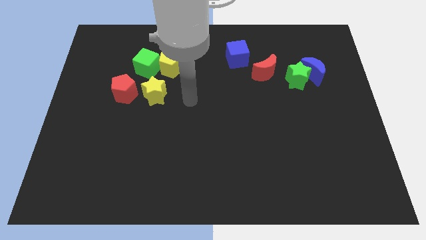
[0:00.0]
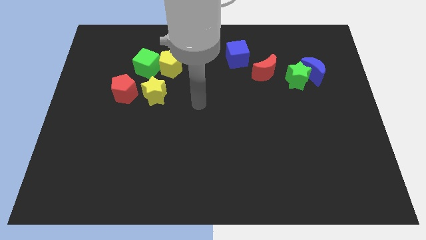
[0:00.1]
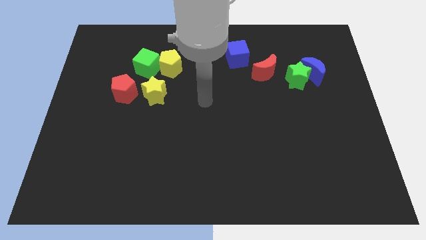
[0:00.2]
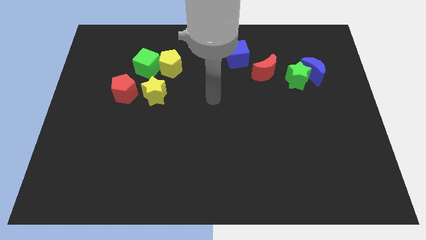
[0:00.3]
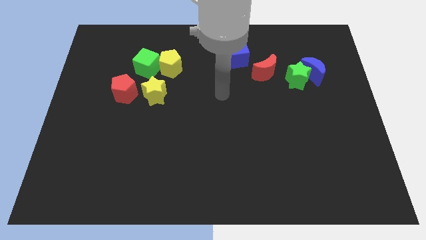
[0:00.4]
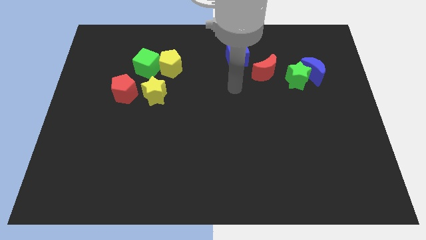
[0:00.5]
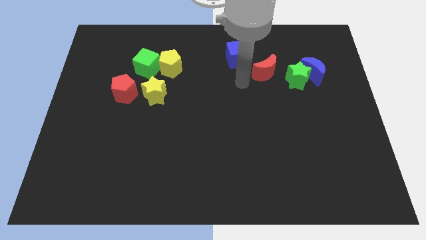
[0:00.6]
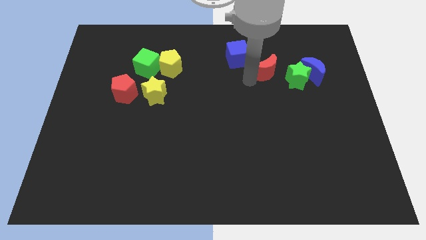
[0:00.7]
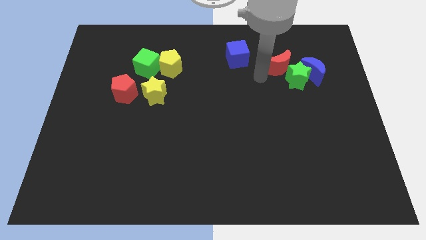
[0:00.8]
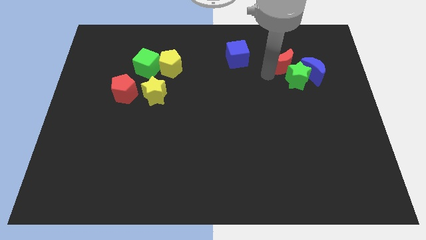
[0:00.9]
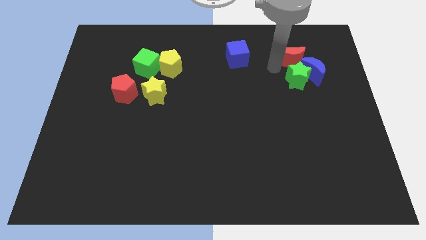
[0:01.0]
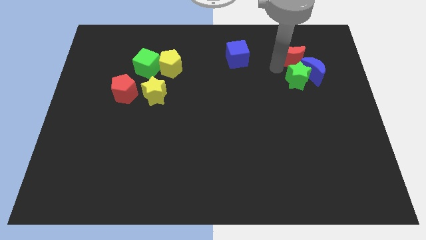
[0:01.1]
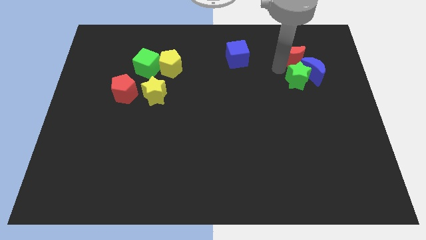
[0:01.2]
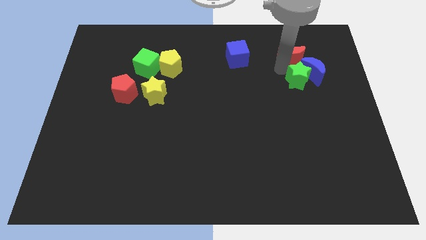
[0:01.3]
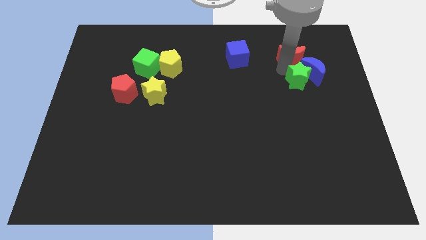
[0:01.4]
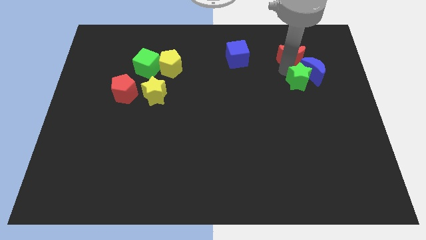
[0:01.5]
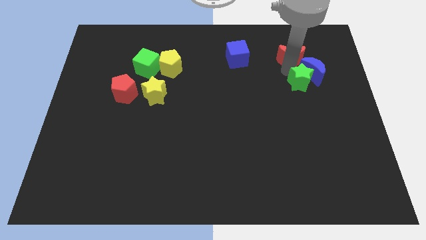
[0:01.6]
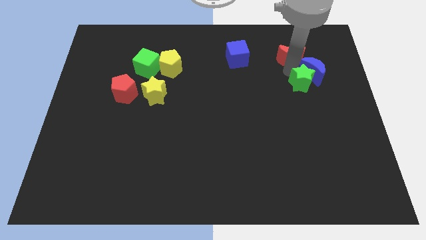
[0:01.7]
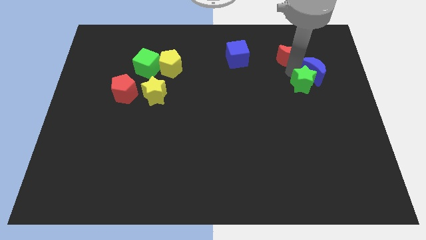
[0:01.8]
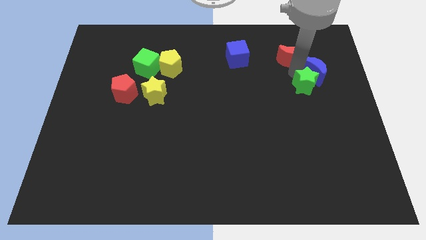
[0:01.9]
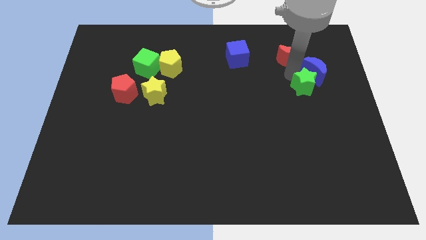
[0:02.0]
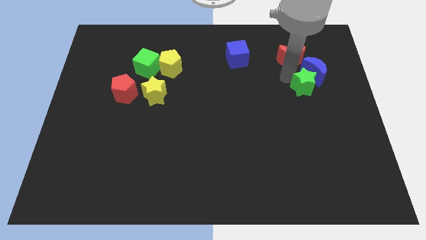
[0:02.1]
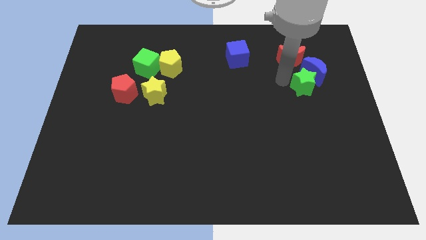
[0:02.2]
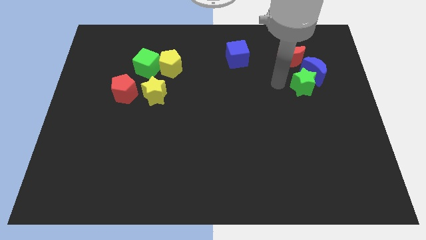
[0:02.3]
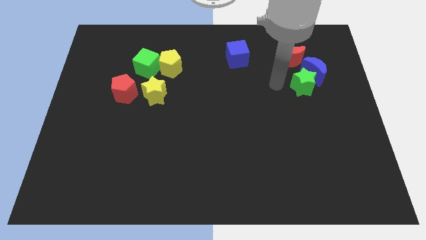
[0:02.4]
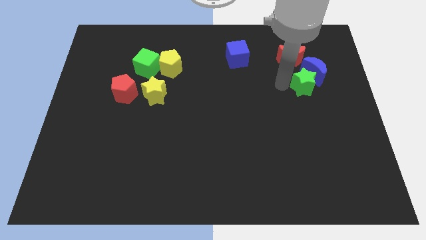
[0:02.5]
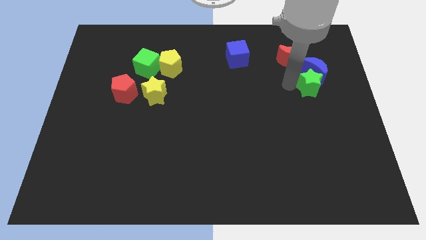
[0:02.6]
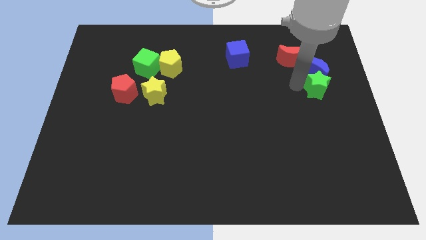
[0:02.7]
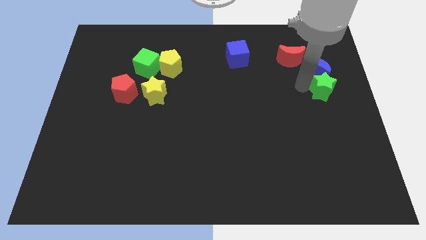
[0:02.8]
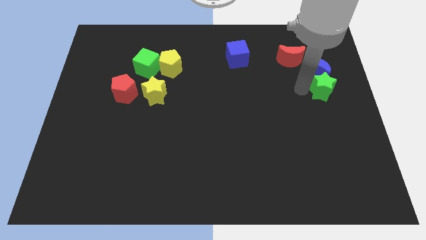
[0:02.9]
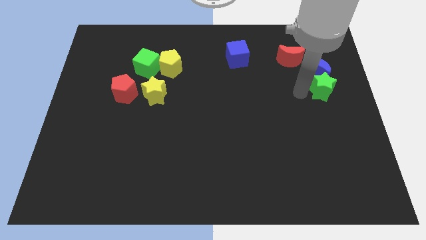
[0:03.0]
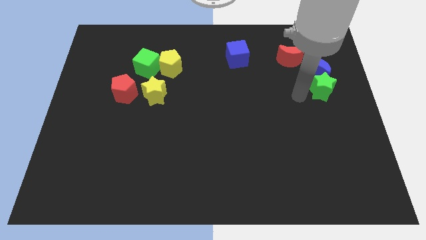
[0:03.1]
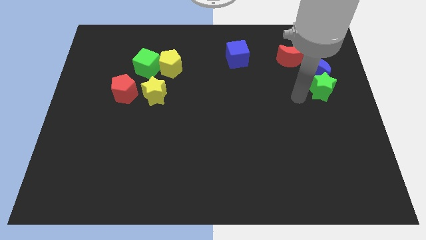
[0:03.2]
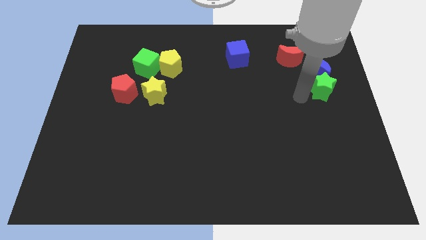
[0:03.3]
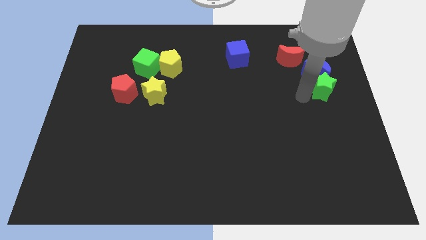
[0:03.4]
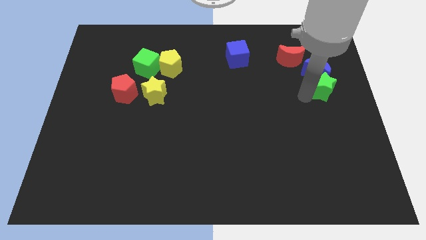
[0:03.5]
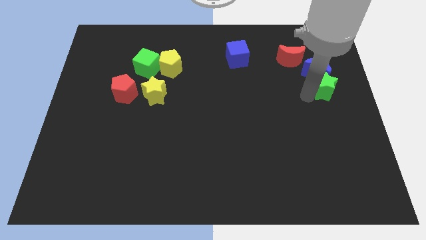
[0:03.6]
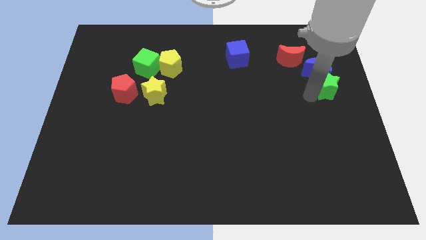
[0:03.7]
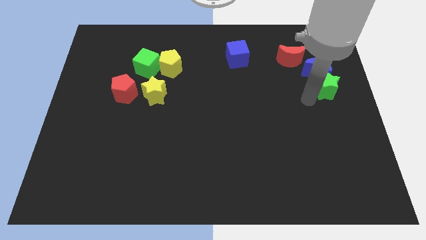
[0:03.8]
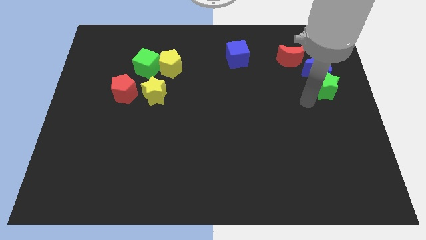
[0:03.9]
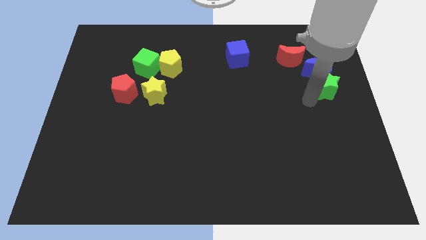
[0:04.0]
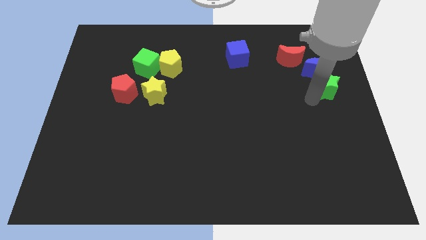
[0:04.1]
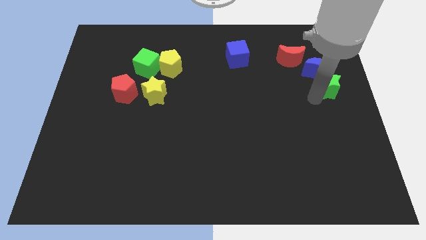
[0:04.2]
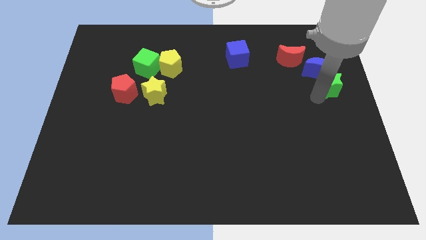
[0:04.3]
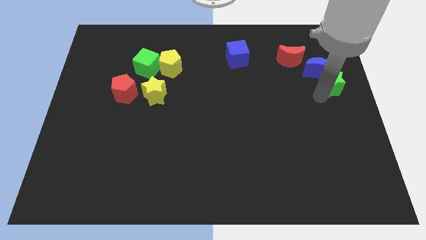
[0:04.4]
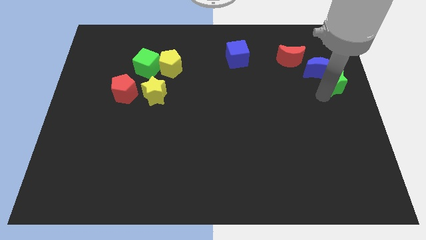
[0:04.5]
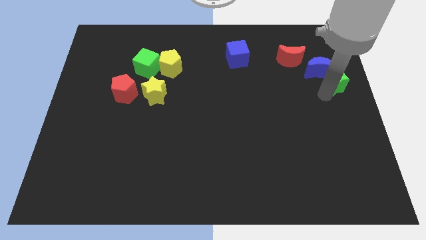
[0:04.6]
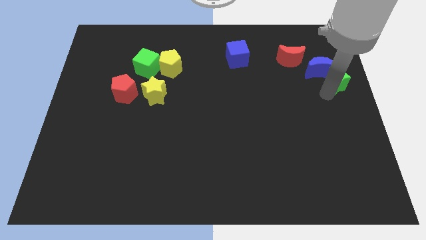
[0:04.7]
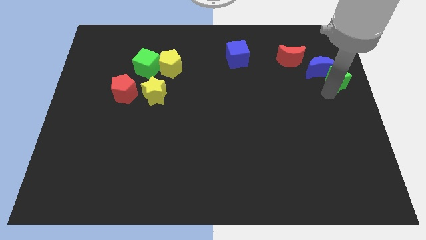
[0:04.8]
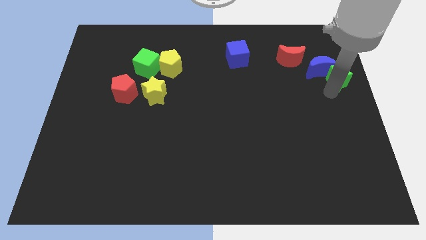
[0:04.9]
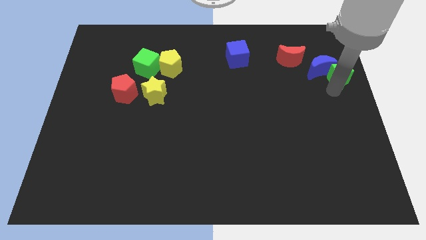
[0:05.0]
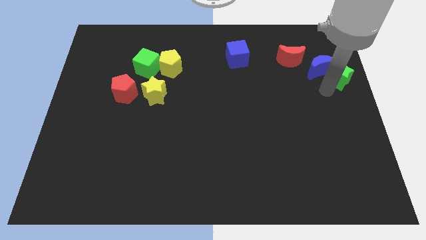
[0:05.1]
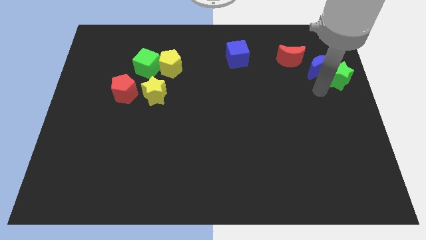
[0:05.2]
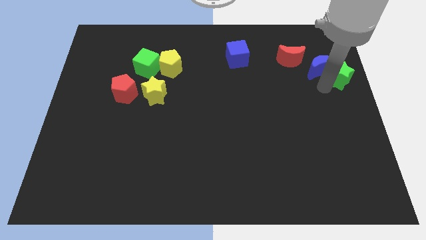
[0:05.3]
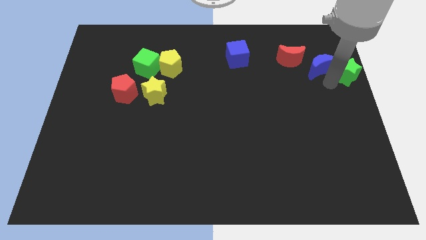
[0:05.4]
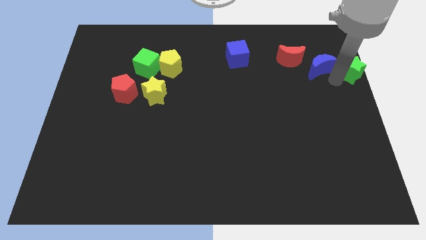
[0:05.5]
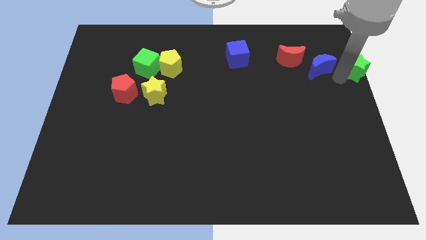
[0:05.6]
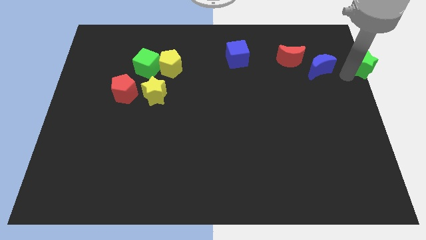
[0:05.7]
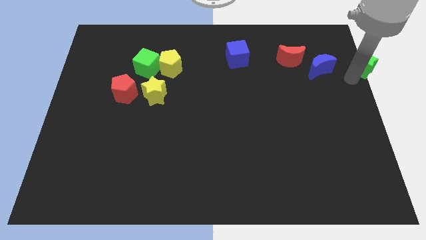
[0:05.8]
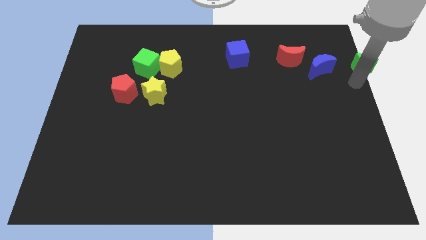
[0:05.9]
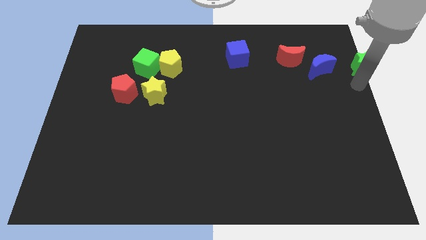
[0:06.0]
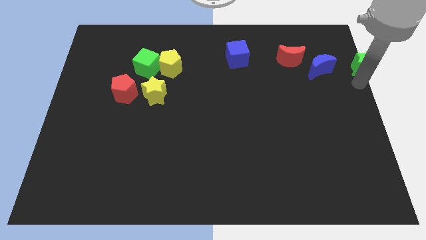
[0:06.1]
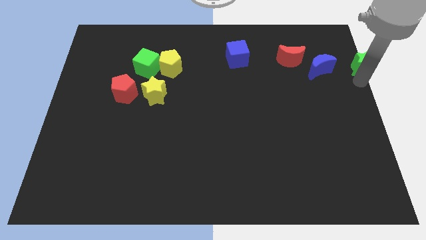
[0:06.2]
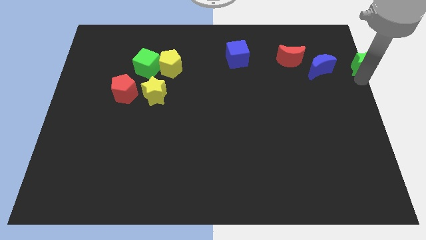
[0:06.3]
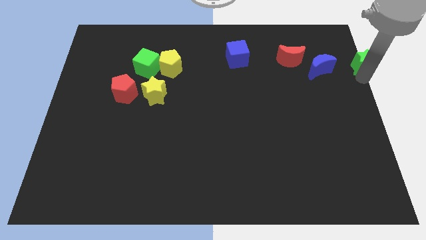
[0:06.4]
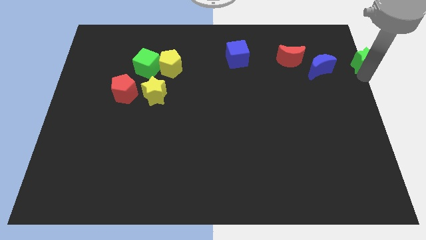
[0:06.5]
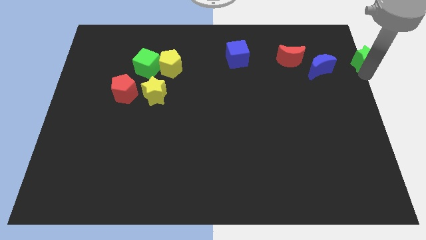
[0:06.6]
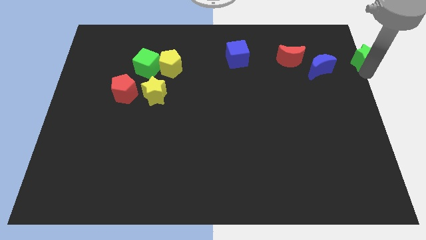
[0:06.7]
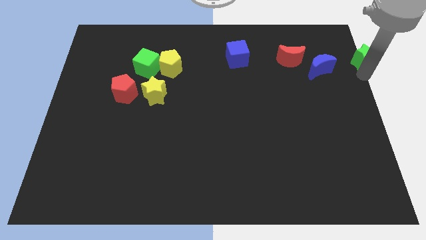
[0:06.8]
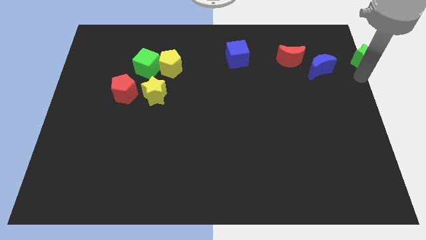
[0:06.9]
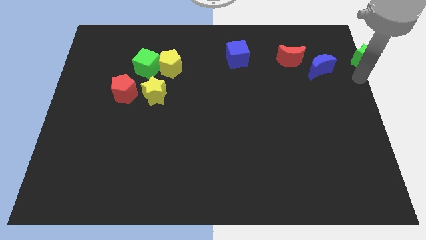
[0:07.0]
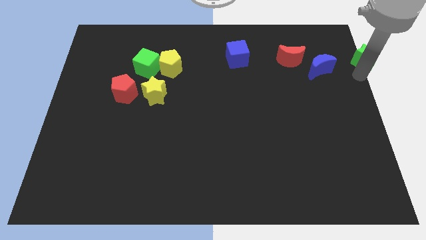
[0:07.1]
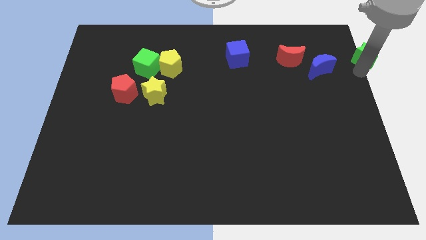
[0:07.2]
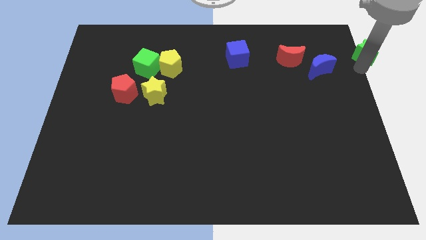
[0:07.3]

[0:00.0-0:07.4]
put the green star to the upper right corner
